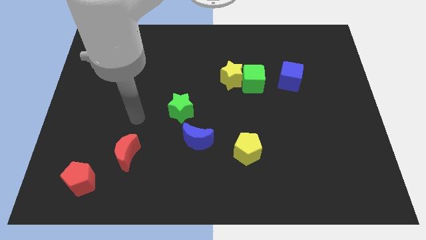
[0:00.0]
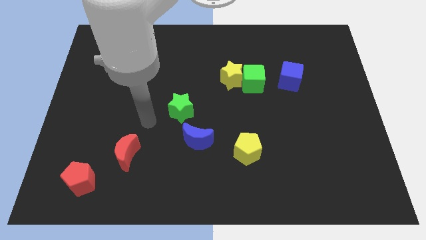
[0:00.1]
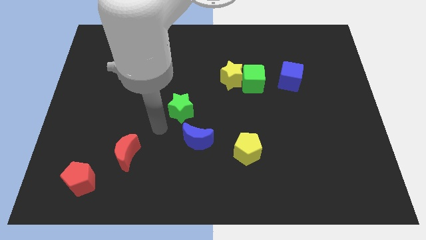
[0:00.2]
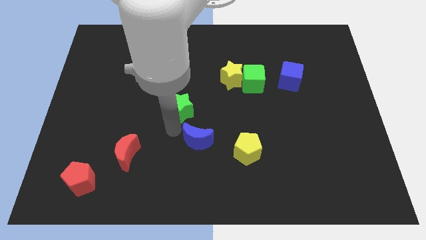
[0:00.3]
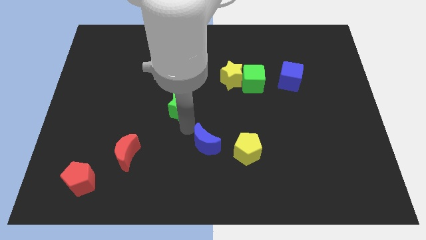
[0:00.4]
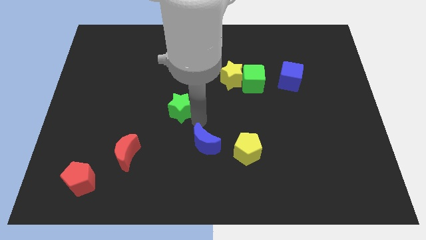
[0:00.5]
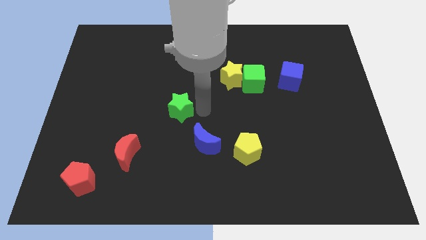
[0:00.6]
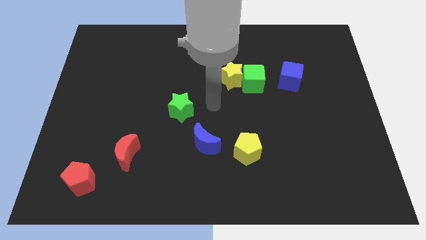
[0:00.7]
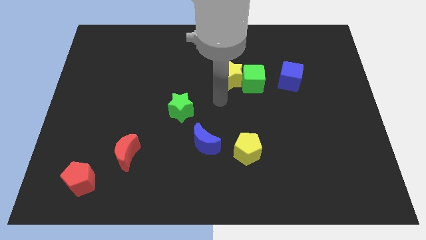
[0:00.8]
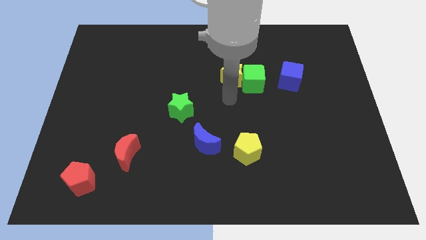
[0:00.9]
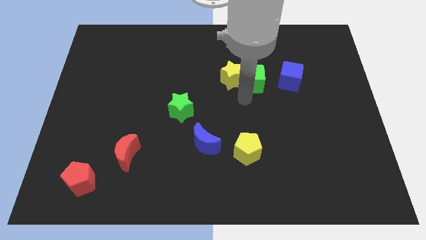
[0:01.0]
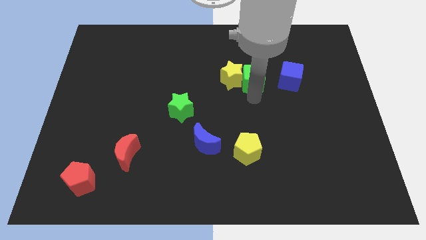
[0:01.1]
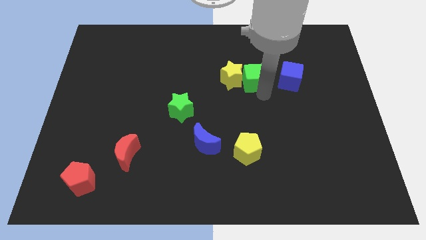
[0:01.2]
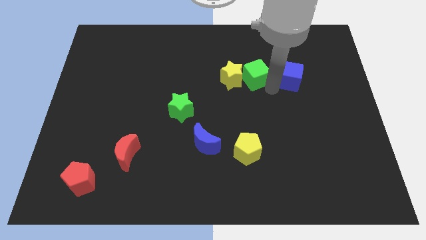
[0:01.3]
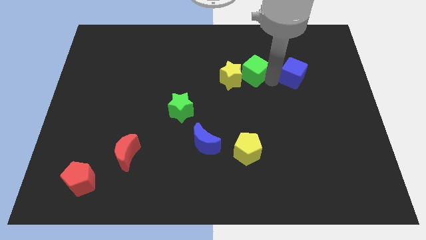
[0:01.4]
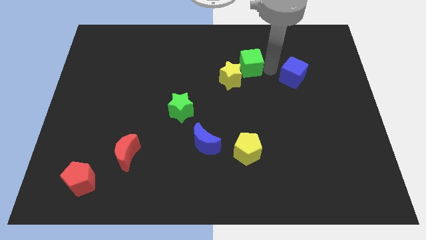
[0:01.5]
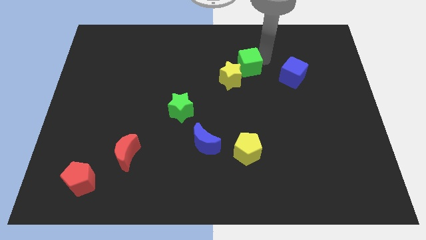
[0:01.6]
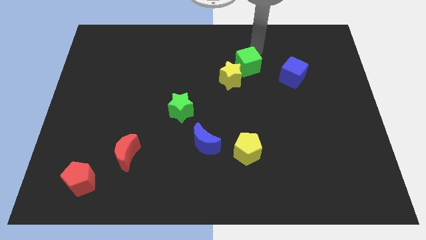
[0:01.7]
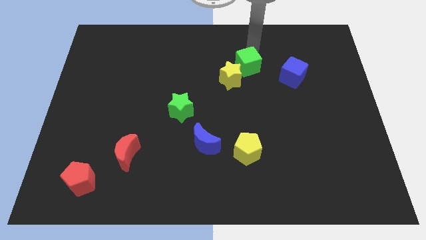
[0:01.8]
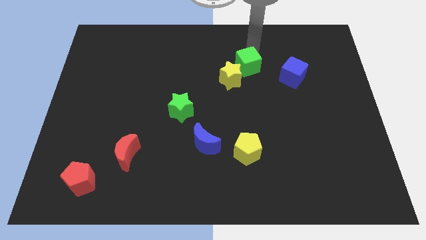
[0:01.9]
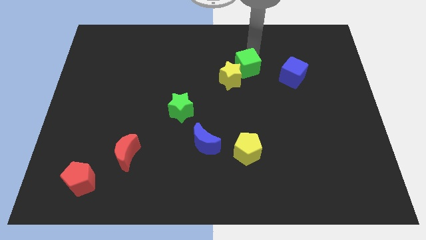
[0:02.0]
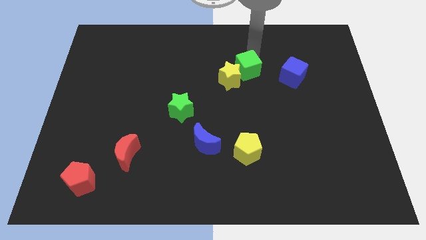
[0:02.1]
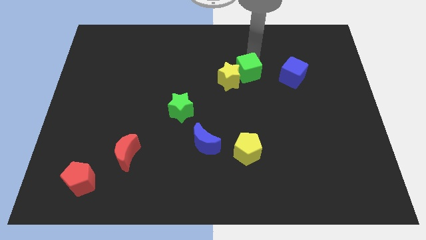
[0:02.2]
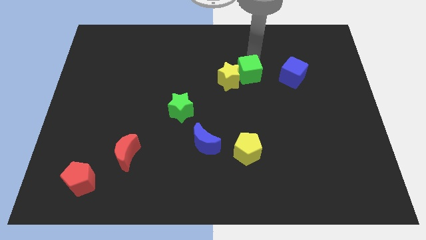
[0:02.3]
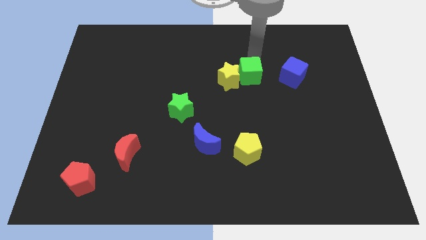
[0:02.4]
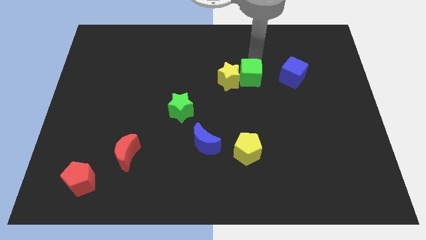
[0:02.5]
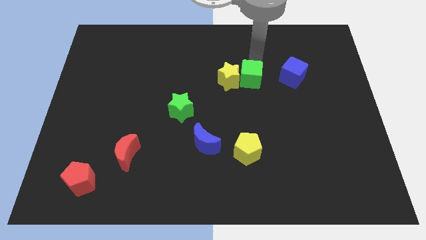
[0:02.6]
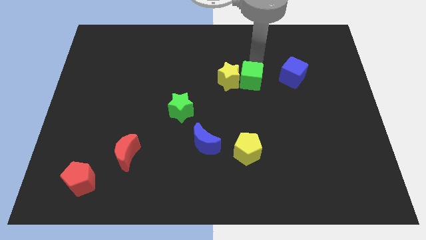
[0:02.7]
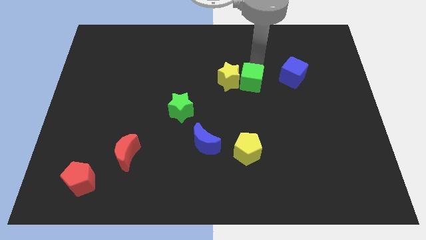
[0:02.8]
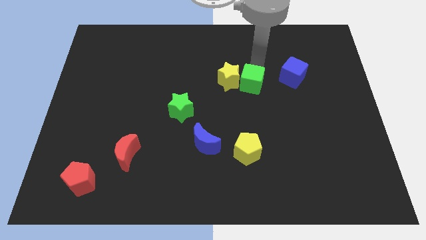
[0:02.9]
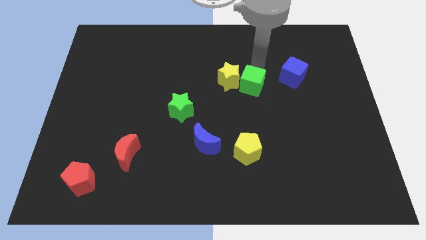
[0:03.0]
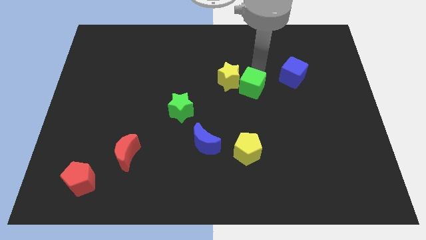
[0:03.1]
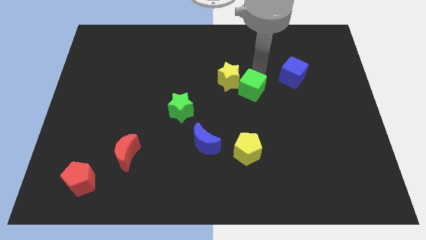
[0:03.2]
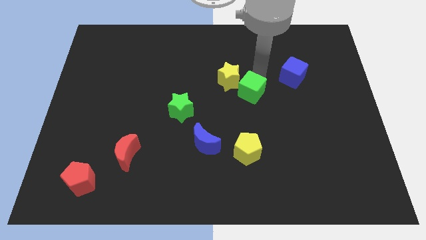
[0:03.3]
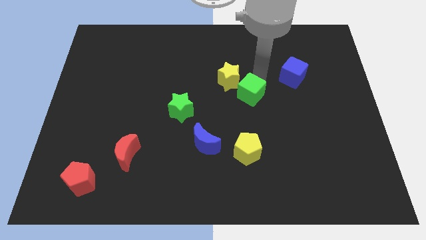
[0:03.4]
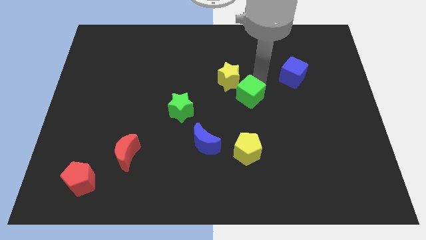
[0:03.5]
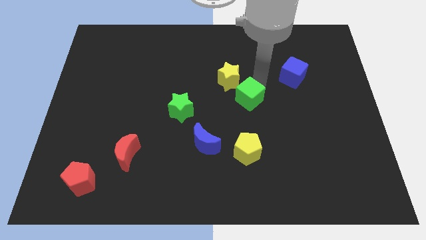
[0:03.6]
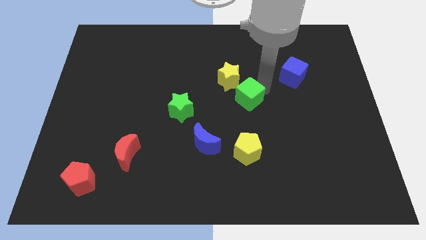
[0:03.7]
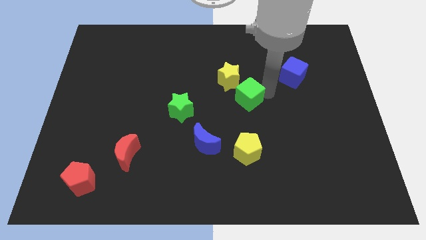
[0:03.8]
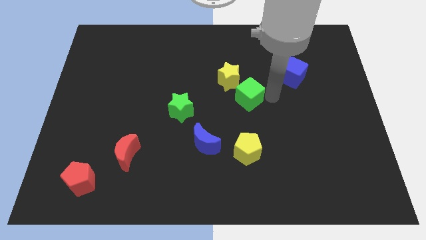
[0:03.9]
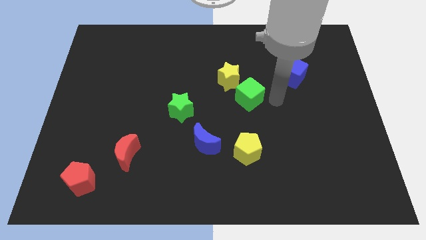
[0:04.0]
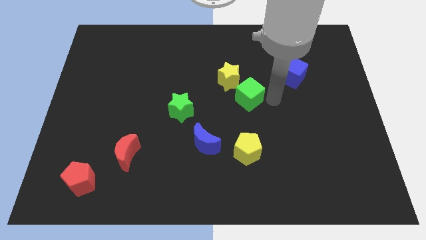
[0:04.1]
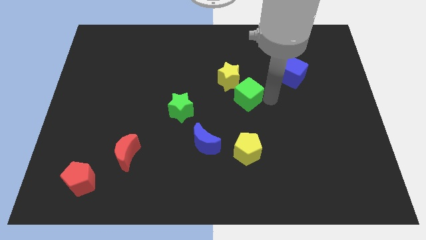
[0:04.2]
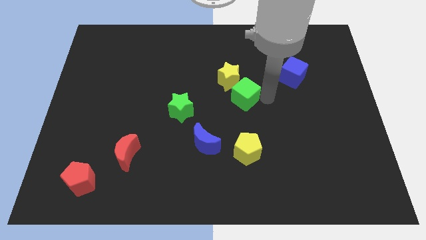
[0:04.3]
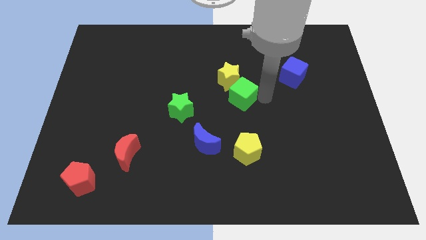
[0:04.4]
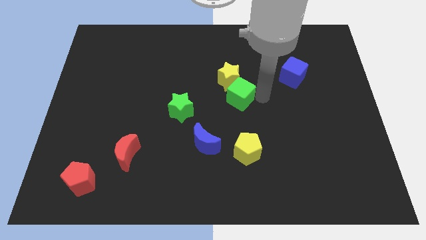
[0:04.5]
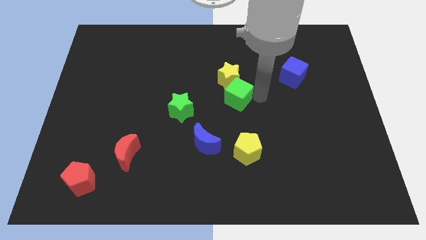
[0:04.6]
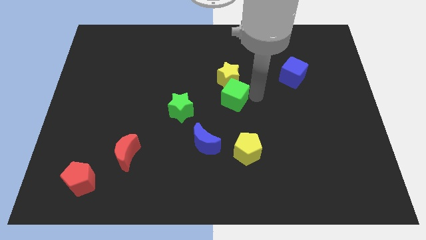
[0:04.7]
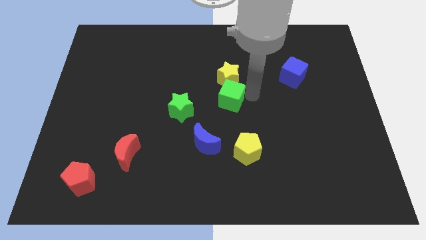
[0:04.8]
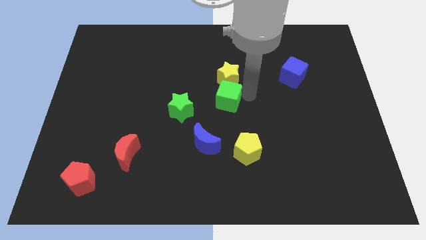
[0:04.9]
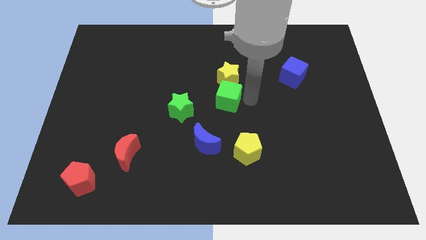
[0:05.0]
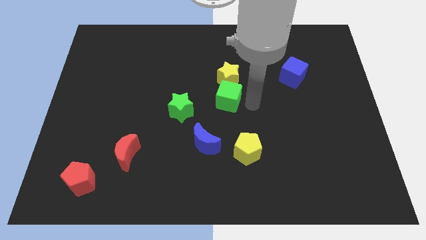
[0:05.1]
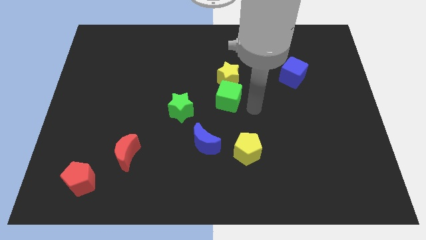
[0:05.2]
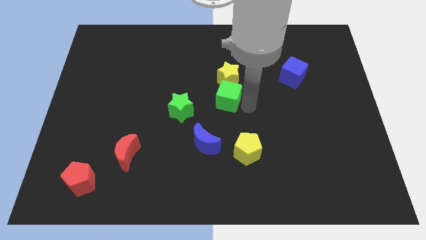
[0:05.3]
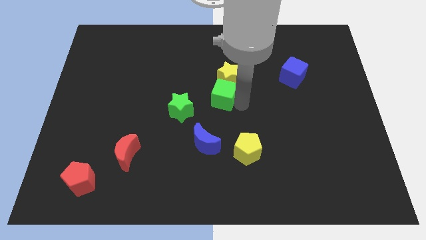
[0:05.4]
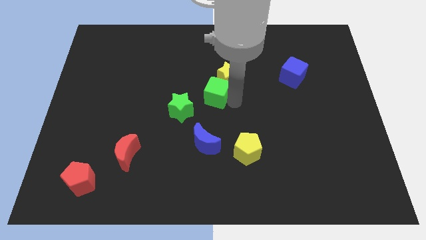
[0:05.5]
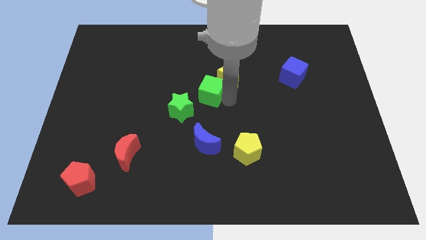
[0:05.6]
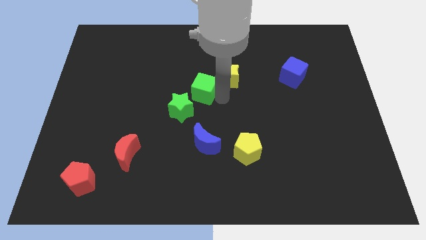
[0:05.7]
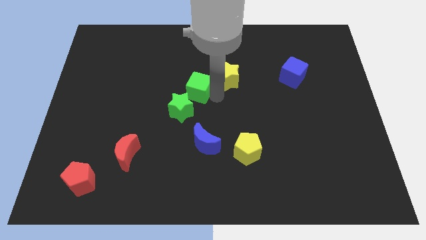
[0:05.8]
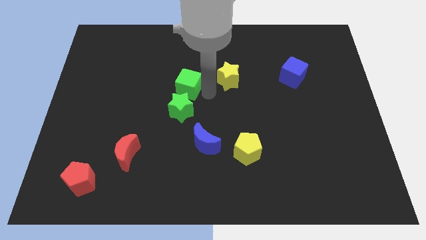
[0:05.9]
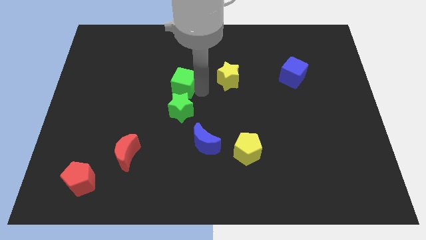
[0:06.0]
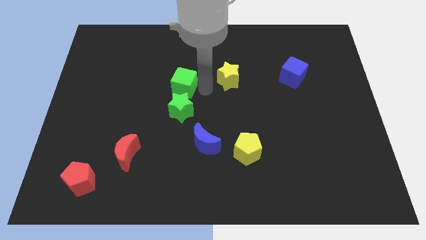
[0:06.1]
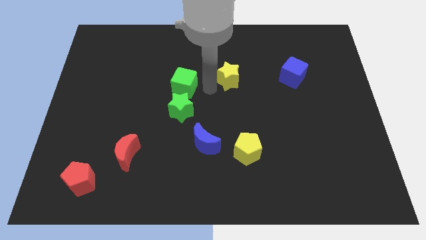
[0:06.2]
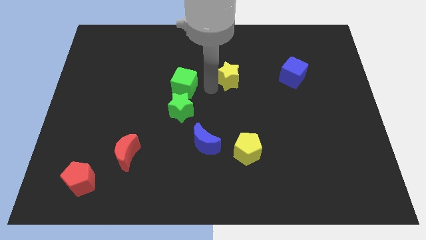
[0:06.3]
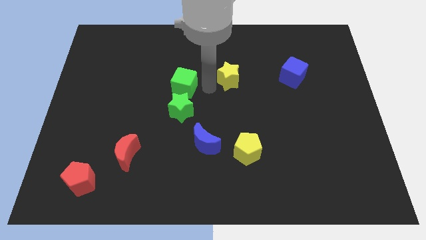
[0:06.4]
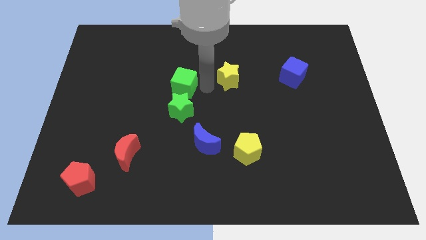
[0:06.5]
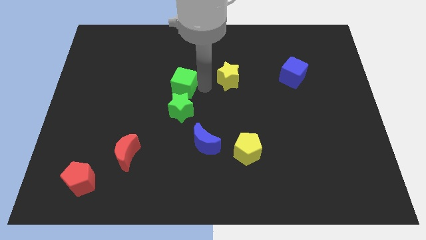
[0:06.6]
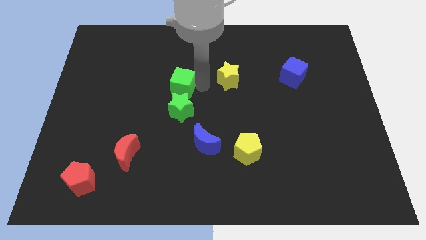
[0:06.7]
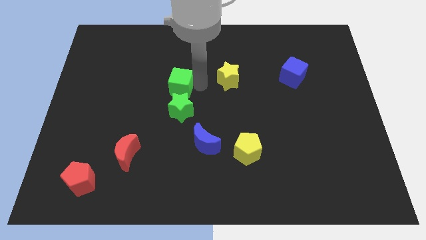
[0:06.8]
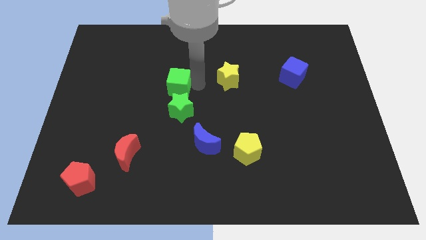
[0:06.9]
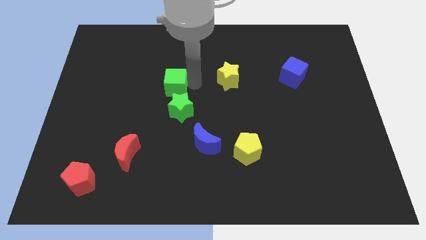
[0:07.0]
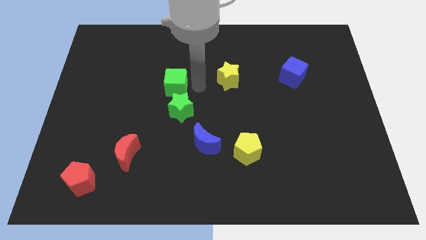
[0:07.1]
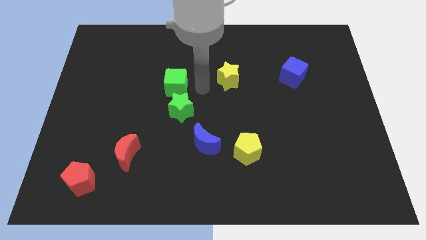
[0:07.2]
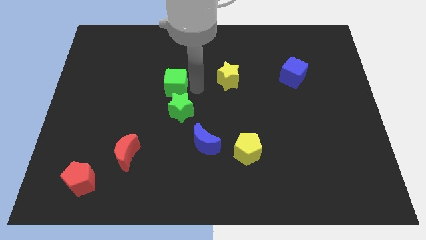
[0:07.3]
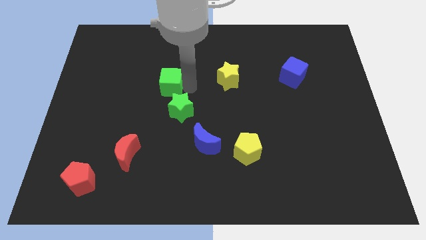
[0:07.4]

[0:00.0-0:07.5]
slide the green cube to the left

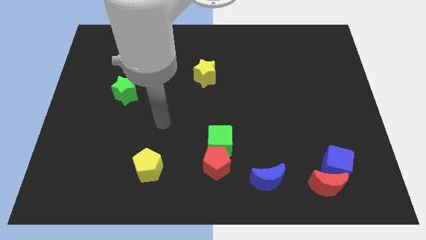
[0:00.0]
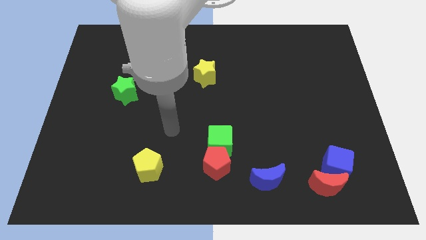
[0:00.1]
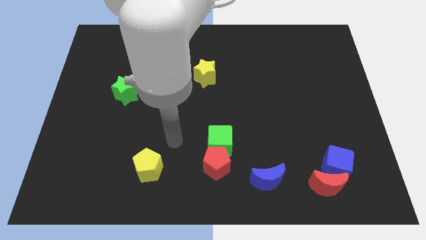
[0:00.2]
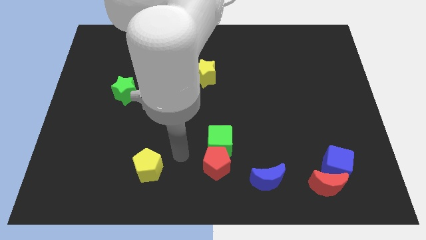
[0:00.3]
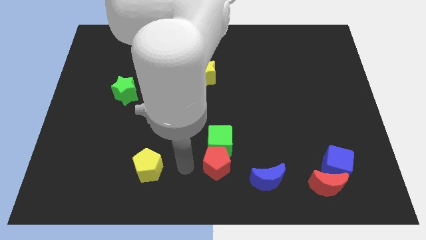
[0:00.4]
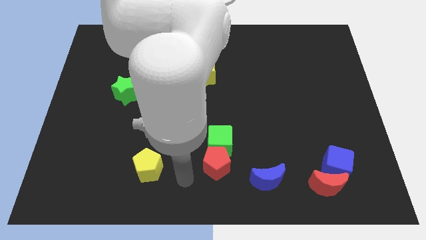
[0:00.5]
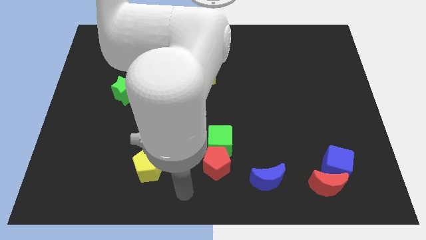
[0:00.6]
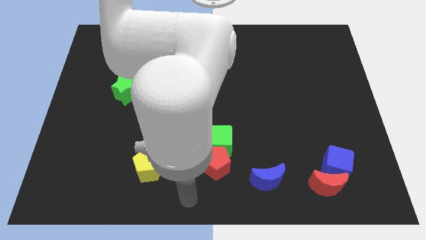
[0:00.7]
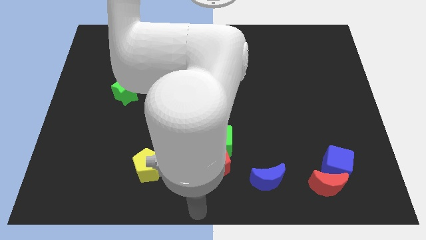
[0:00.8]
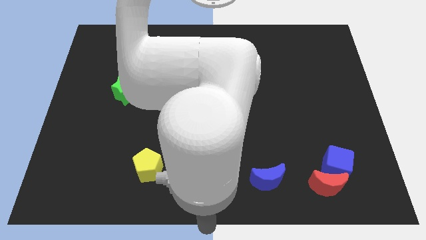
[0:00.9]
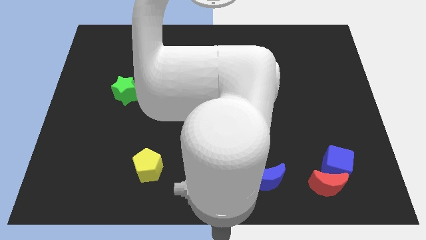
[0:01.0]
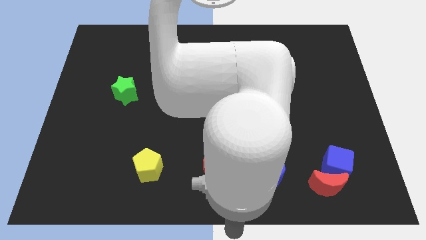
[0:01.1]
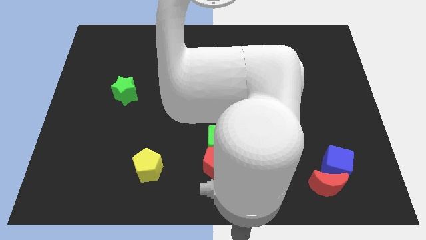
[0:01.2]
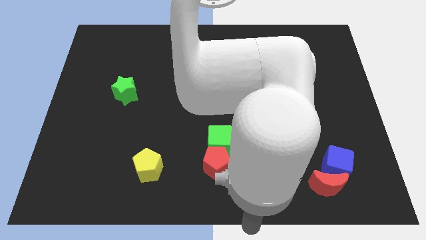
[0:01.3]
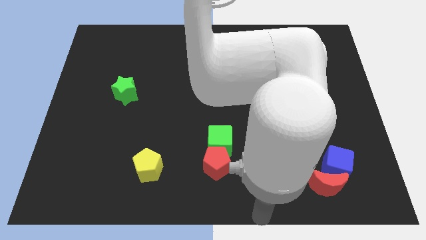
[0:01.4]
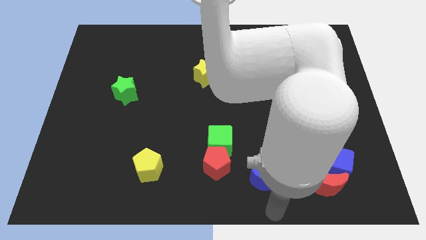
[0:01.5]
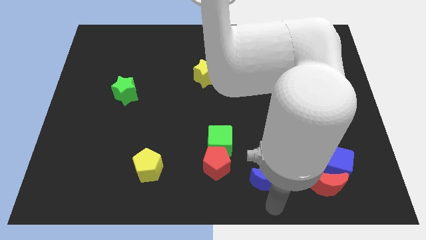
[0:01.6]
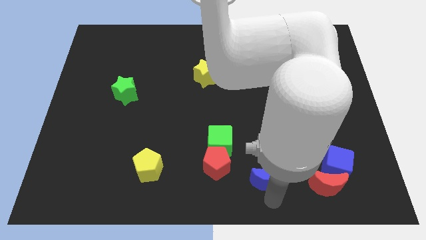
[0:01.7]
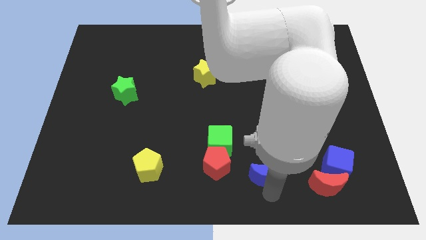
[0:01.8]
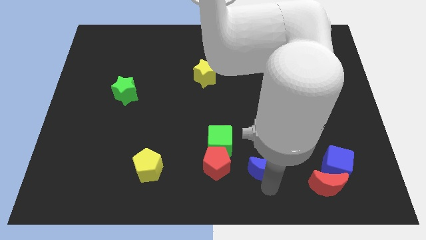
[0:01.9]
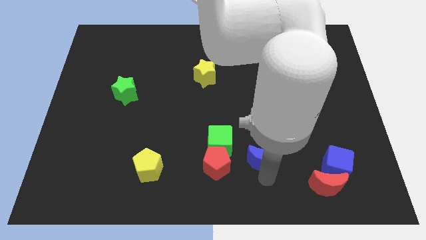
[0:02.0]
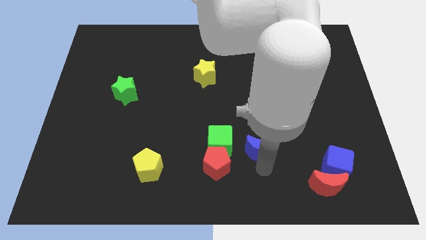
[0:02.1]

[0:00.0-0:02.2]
slide the blue moon up somewhat
